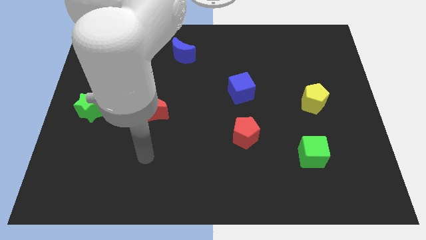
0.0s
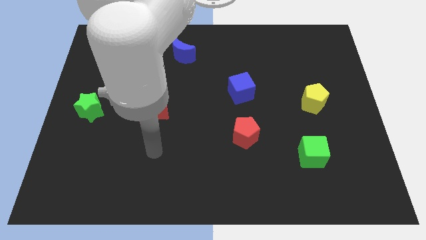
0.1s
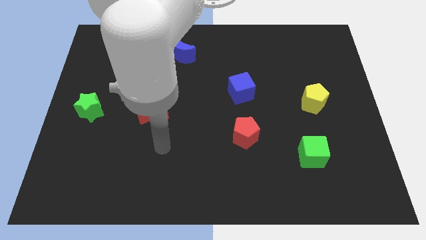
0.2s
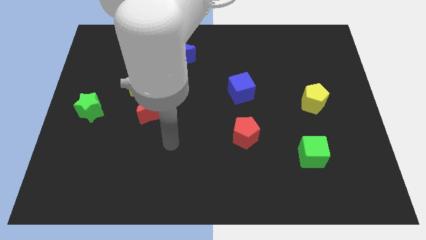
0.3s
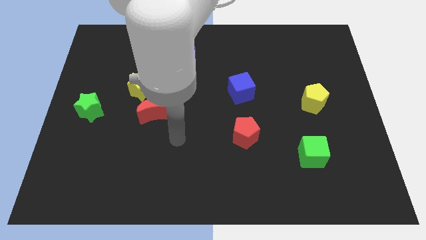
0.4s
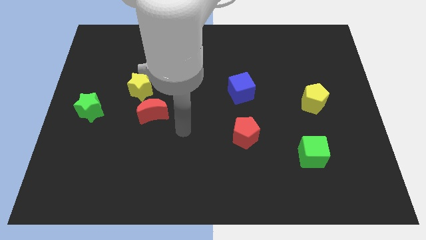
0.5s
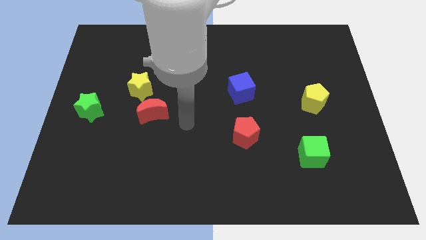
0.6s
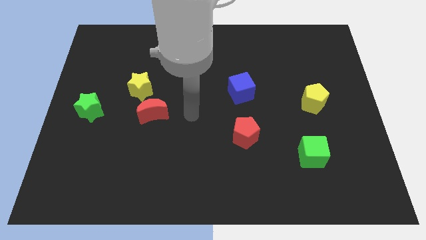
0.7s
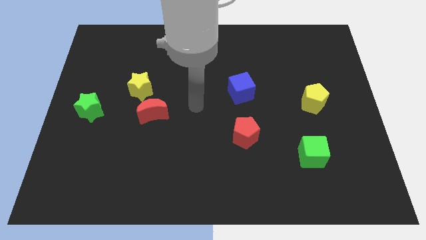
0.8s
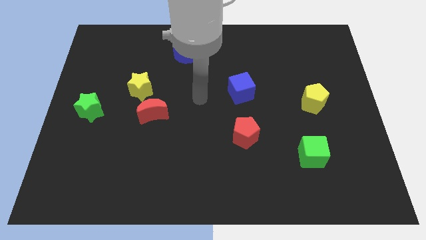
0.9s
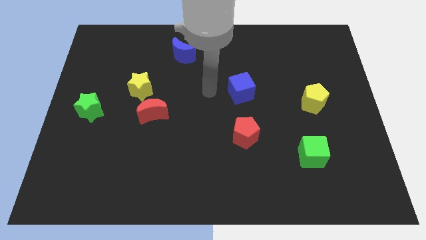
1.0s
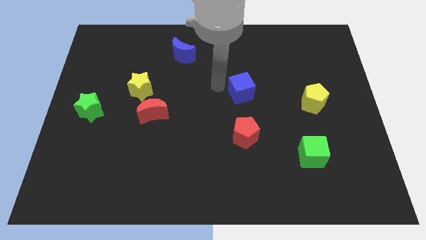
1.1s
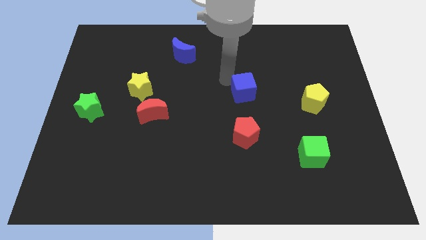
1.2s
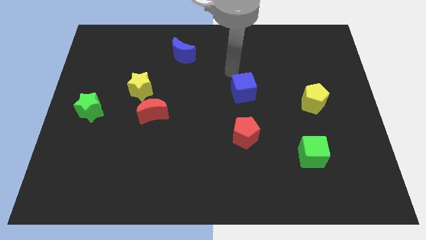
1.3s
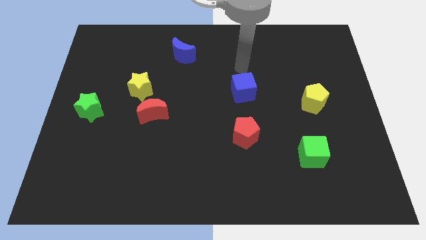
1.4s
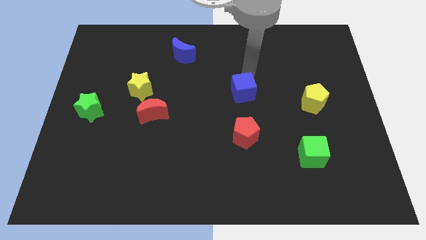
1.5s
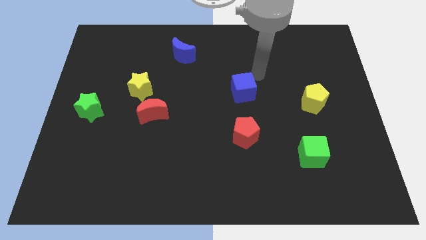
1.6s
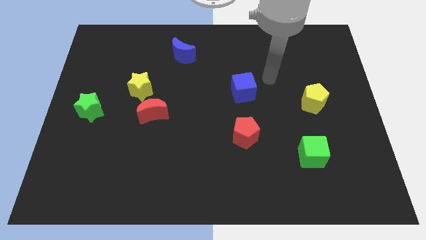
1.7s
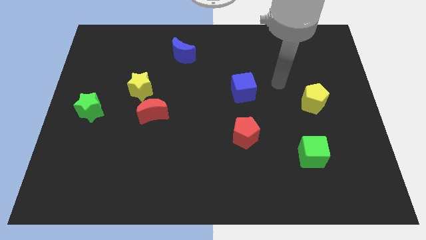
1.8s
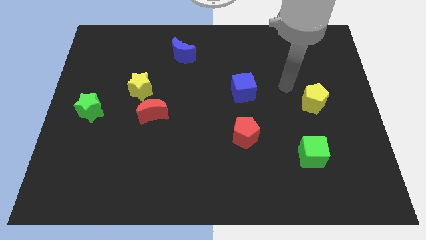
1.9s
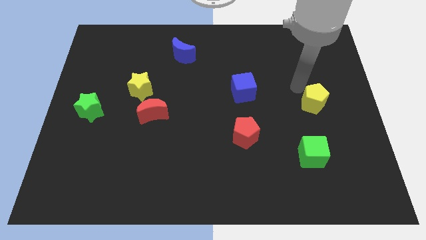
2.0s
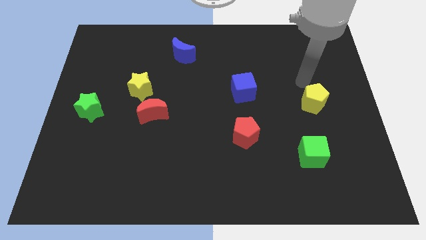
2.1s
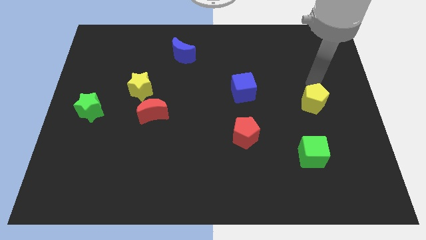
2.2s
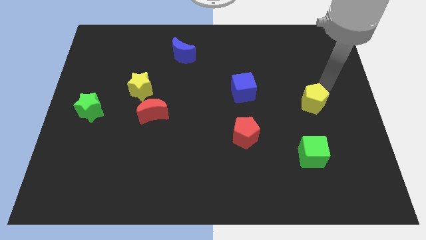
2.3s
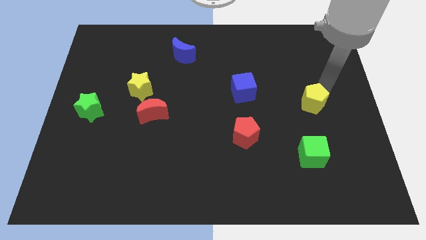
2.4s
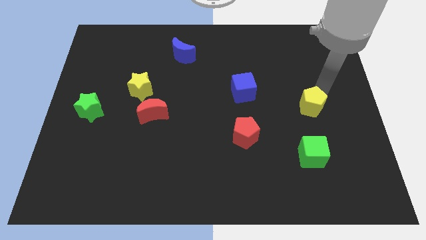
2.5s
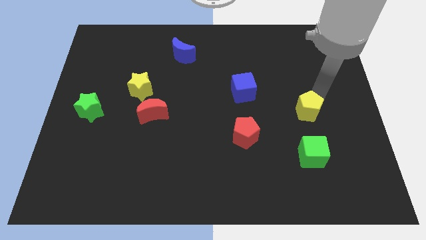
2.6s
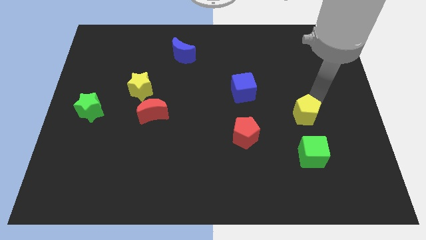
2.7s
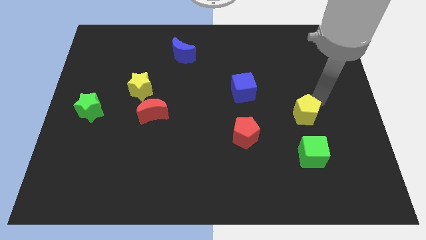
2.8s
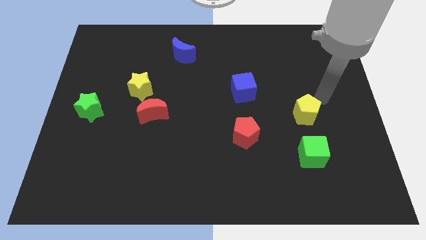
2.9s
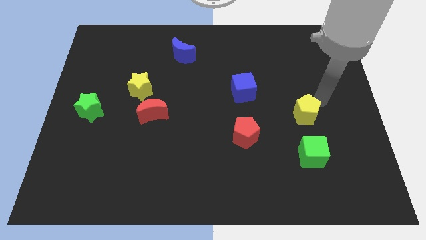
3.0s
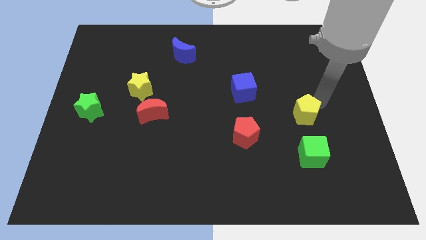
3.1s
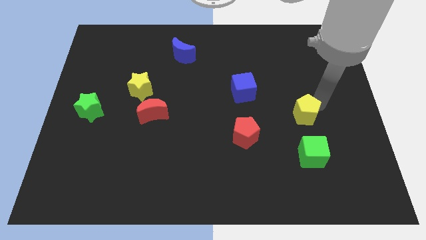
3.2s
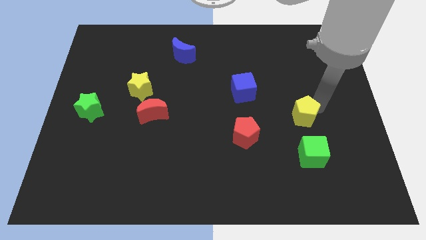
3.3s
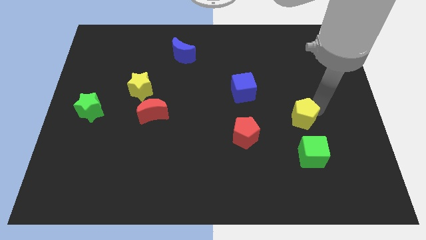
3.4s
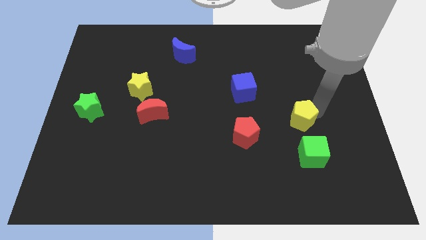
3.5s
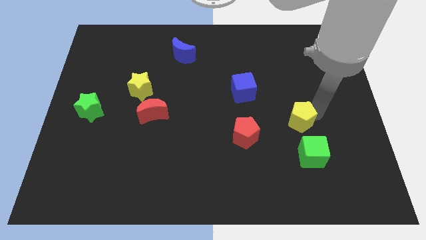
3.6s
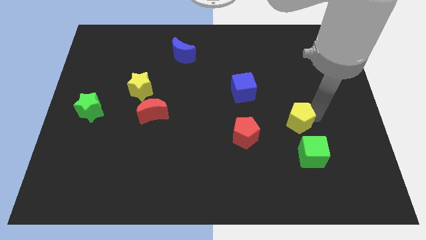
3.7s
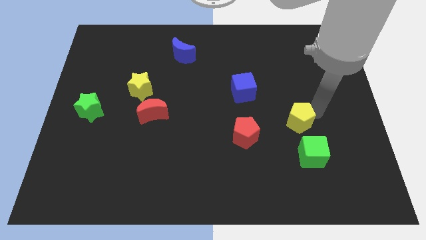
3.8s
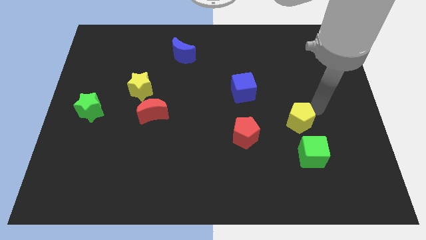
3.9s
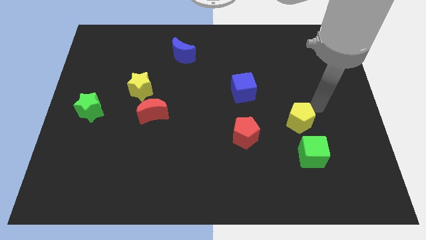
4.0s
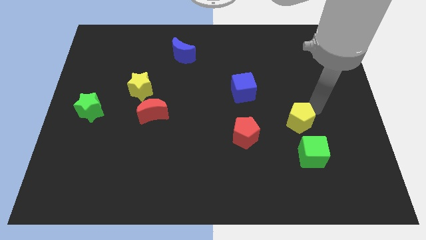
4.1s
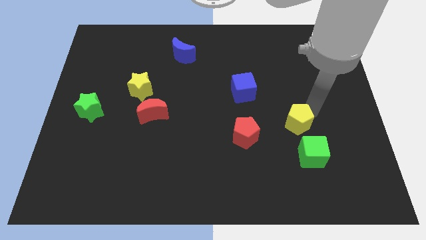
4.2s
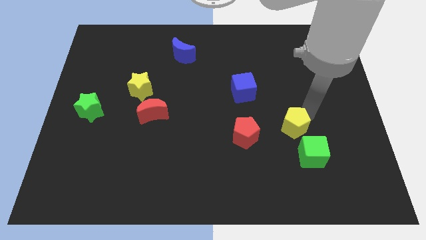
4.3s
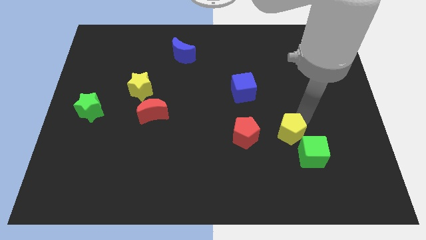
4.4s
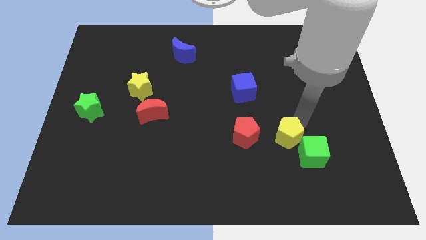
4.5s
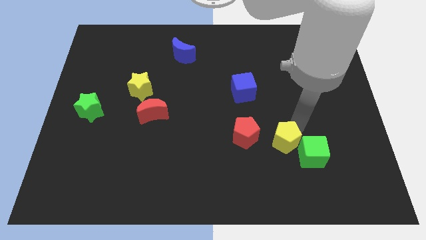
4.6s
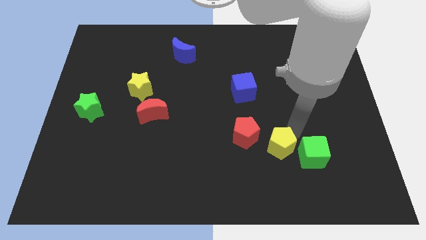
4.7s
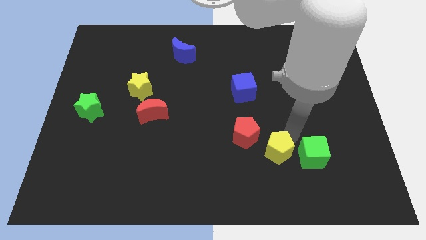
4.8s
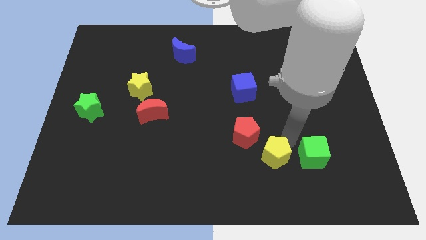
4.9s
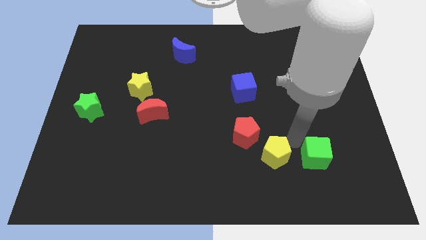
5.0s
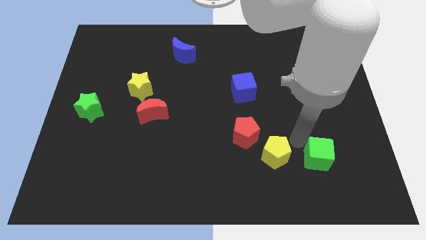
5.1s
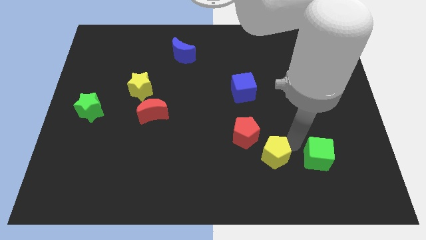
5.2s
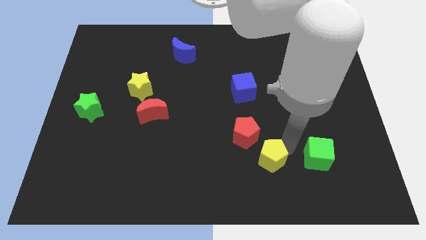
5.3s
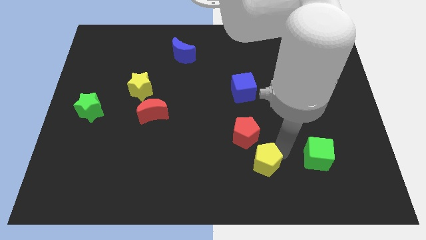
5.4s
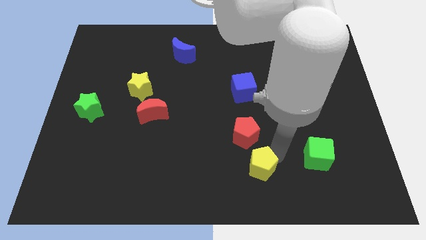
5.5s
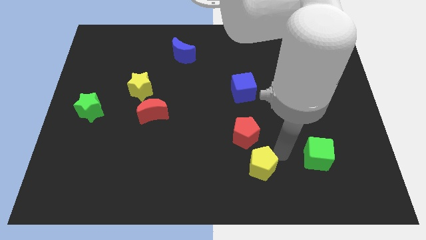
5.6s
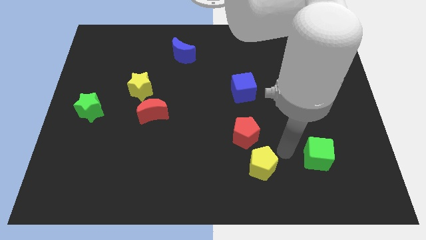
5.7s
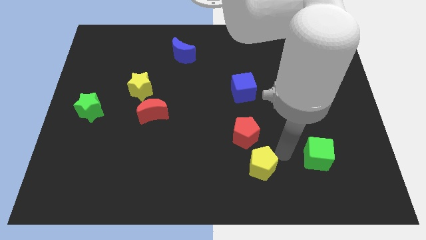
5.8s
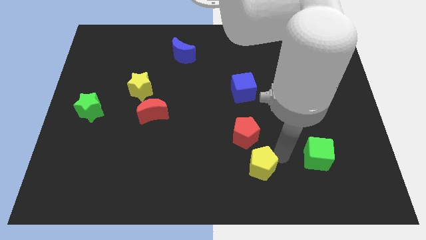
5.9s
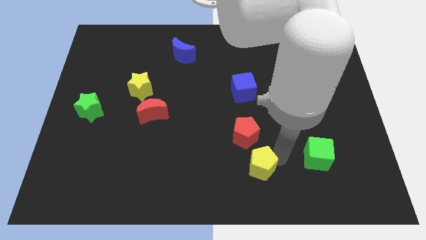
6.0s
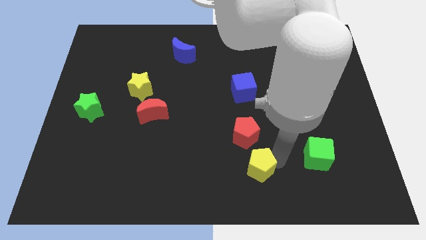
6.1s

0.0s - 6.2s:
put the yellow pentagon to the bottom

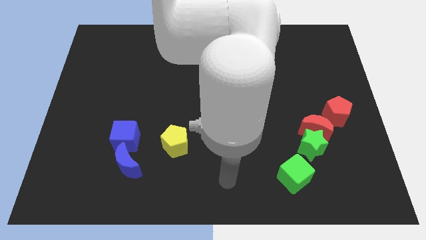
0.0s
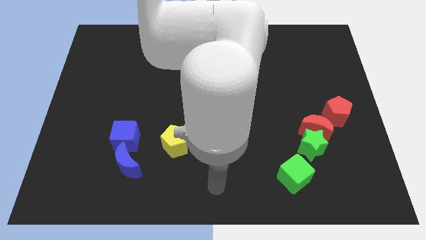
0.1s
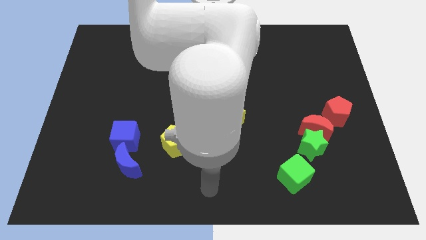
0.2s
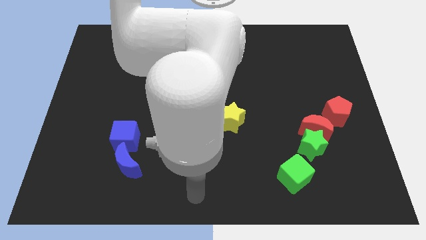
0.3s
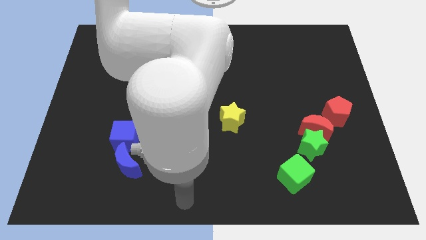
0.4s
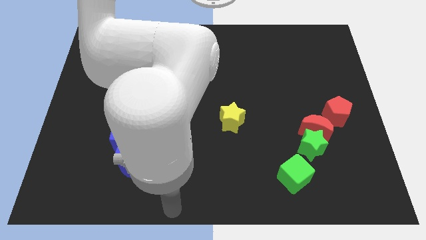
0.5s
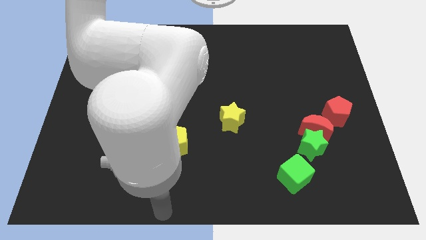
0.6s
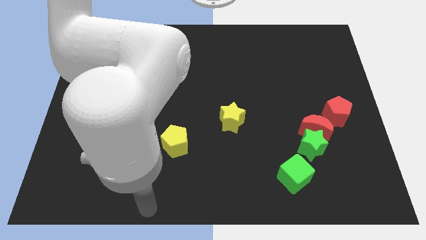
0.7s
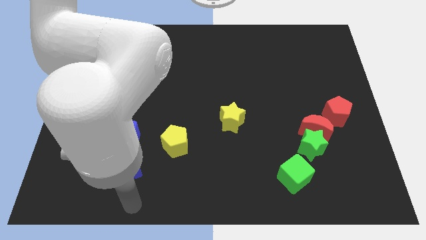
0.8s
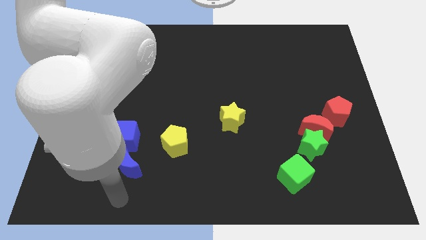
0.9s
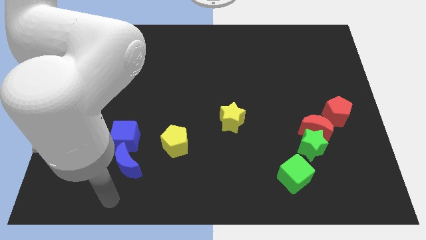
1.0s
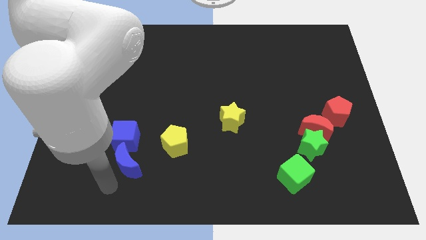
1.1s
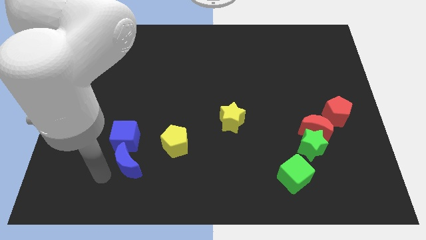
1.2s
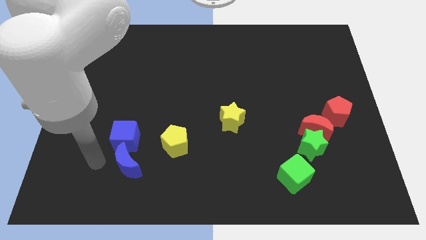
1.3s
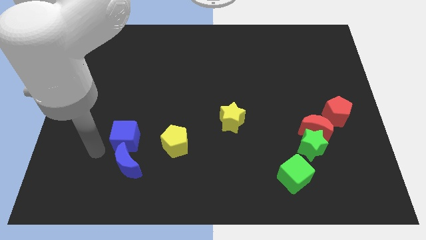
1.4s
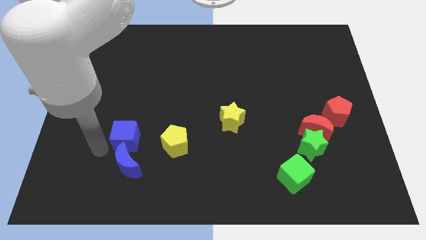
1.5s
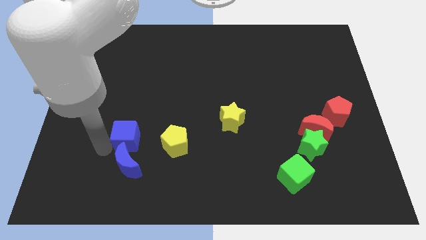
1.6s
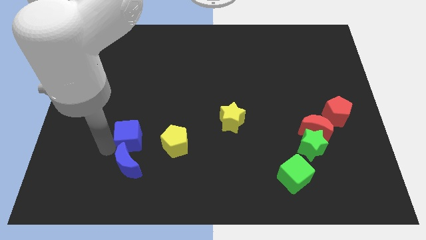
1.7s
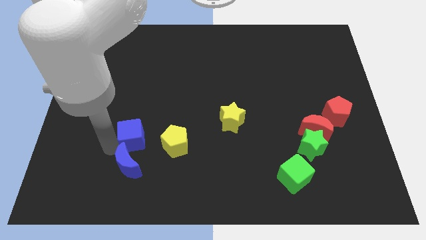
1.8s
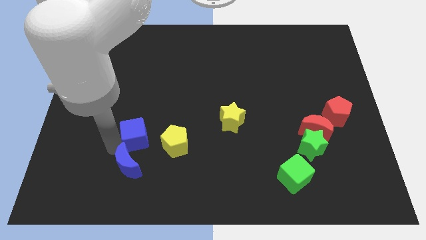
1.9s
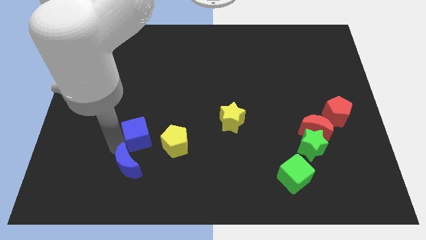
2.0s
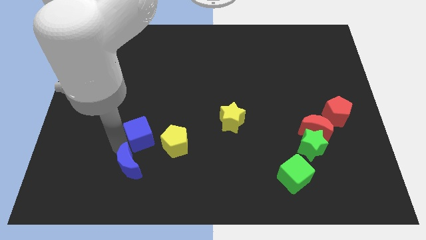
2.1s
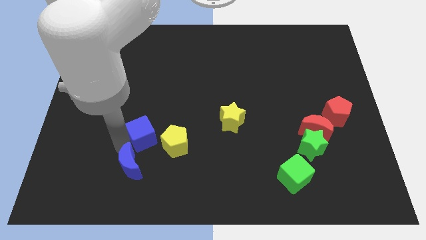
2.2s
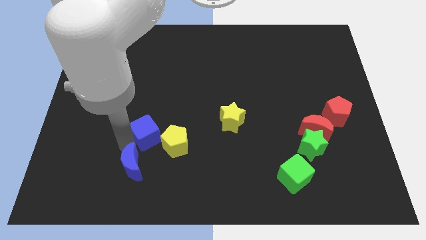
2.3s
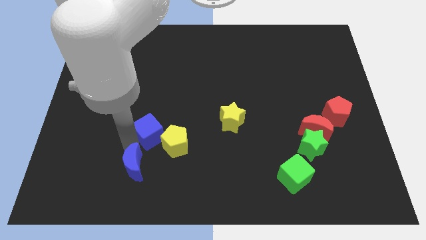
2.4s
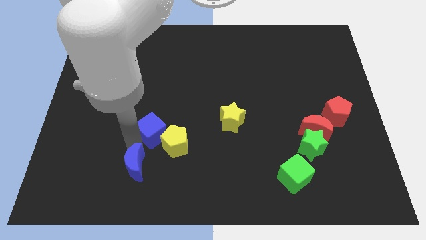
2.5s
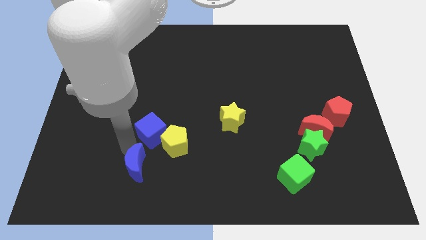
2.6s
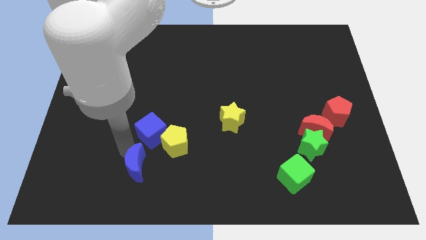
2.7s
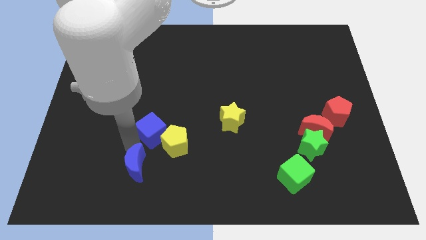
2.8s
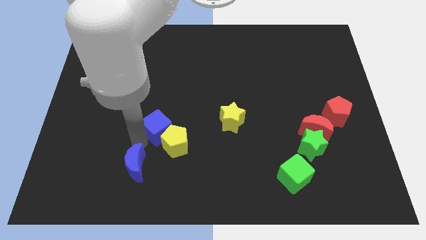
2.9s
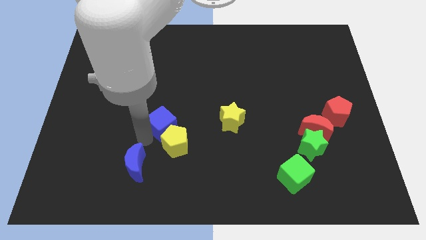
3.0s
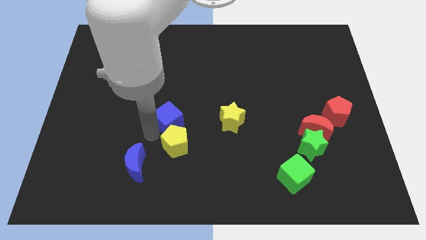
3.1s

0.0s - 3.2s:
move the blue cube to the middle of the board
